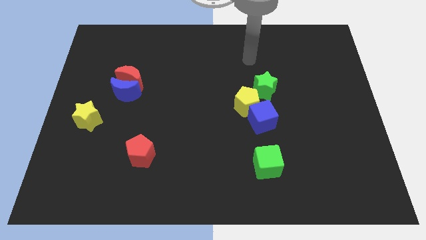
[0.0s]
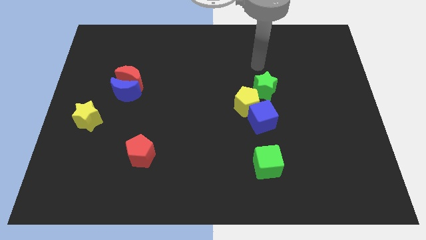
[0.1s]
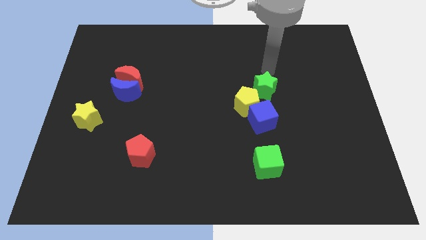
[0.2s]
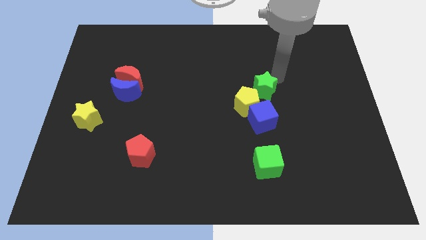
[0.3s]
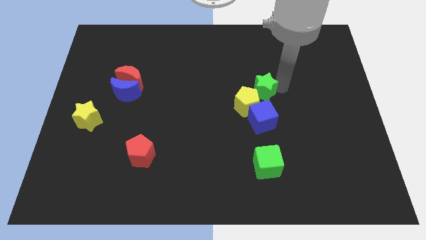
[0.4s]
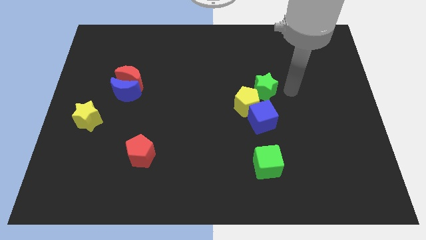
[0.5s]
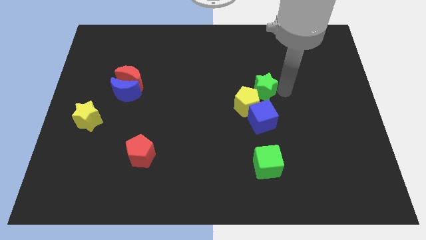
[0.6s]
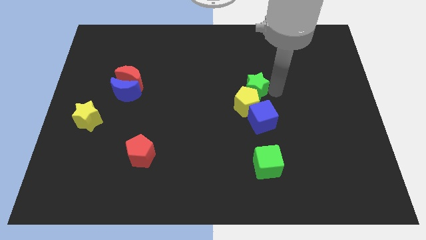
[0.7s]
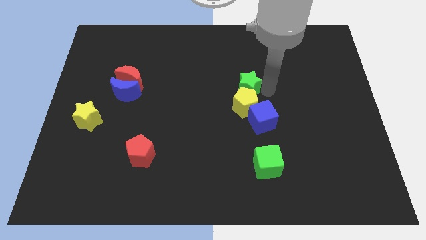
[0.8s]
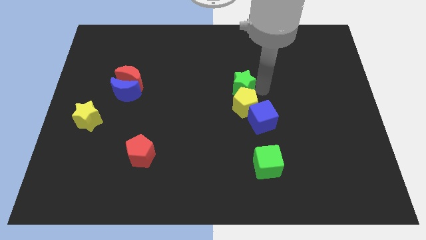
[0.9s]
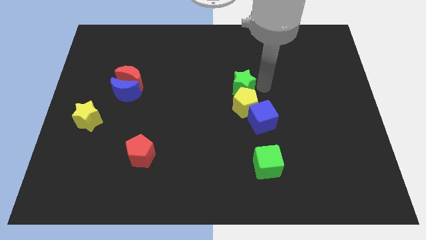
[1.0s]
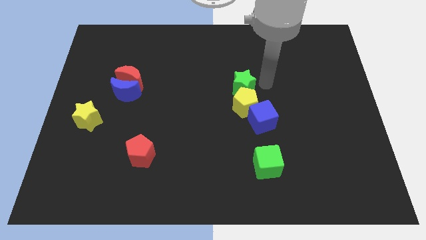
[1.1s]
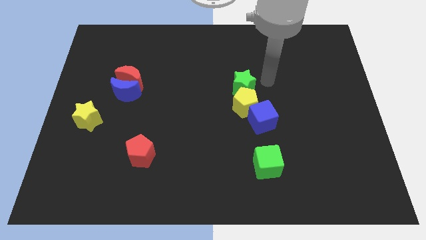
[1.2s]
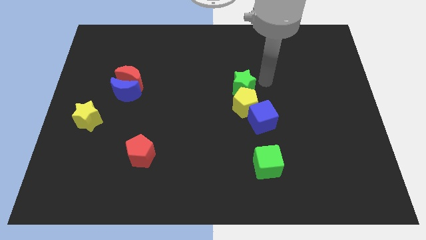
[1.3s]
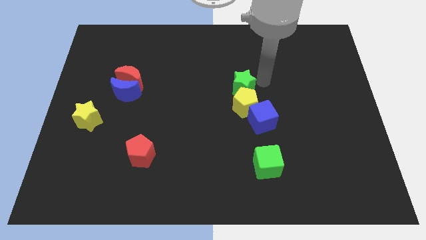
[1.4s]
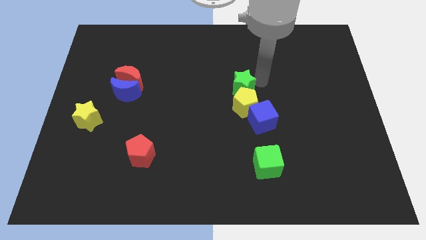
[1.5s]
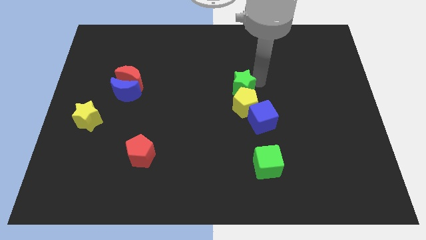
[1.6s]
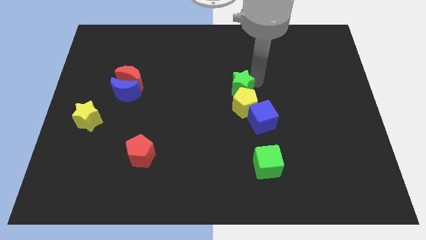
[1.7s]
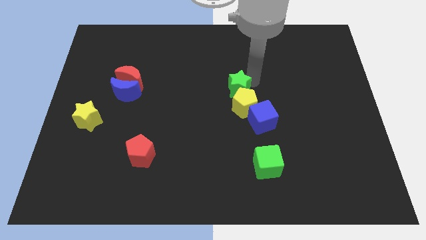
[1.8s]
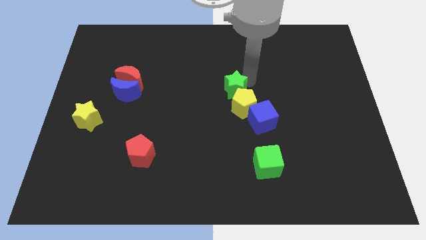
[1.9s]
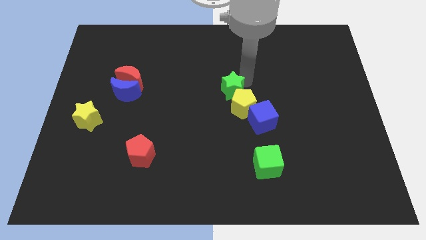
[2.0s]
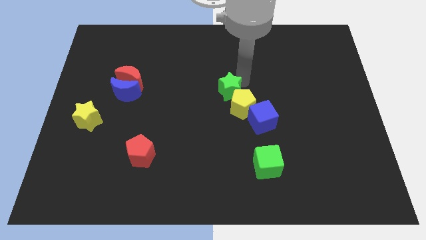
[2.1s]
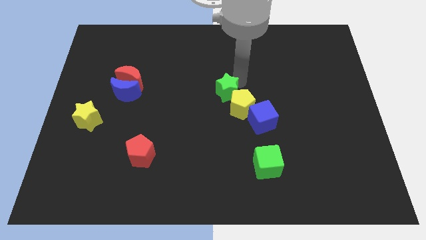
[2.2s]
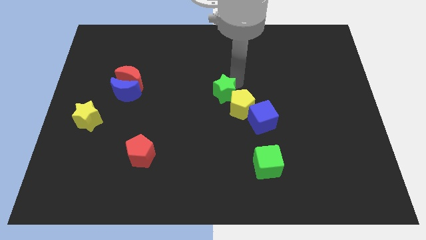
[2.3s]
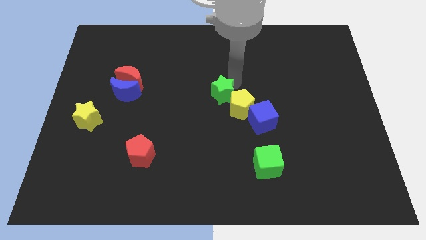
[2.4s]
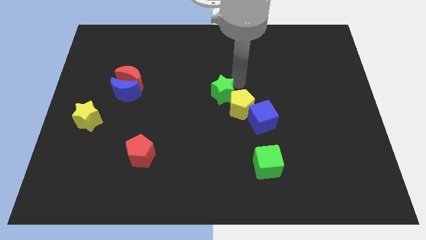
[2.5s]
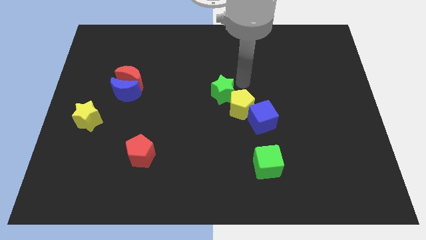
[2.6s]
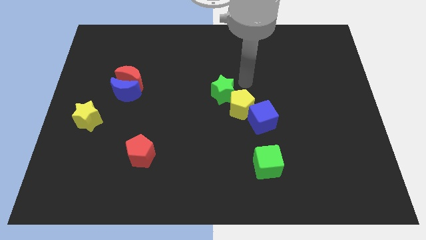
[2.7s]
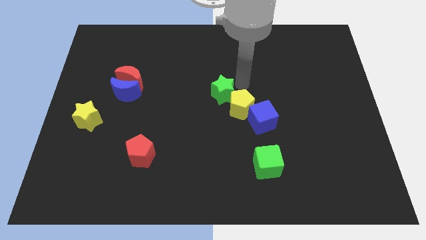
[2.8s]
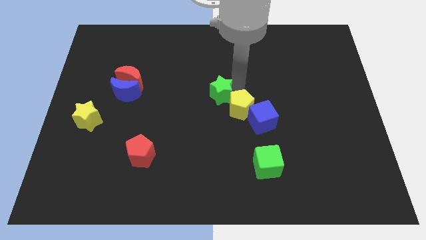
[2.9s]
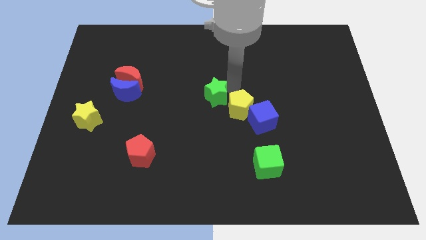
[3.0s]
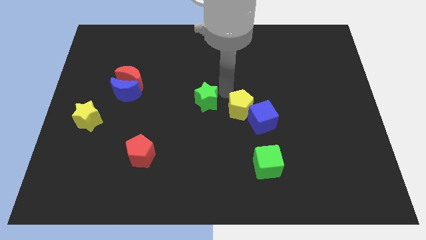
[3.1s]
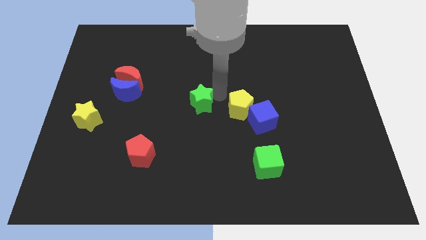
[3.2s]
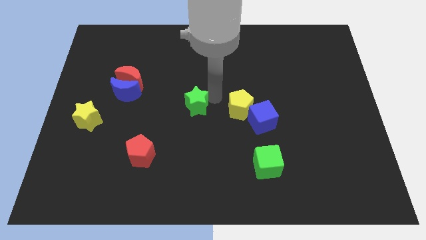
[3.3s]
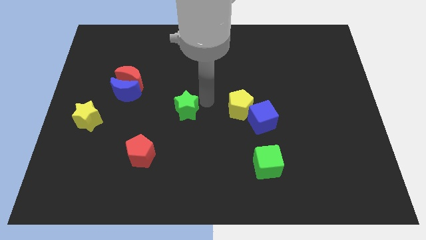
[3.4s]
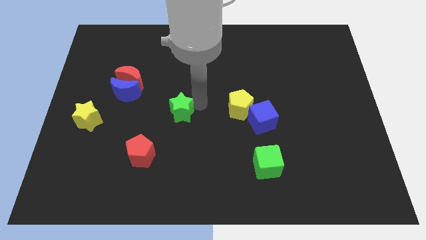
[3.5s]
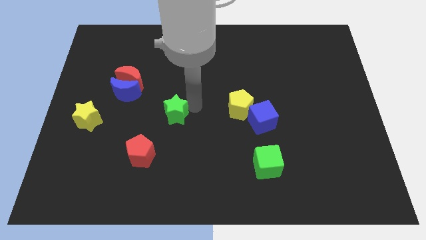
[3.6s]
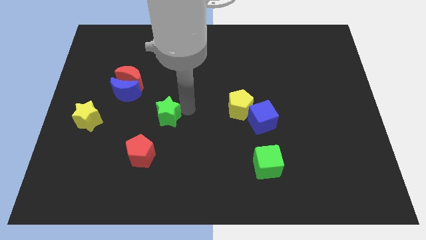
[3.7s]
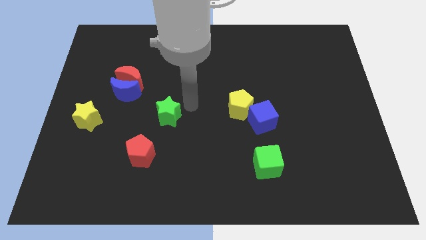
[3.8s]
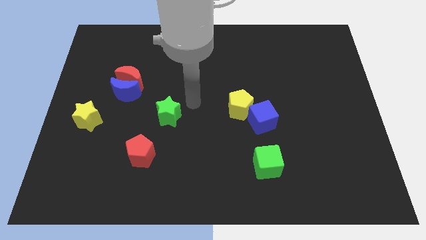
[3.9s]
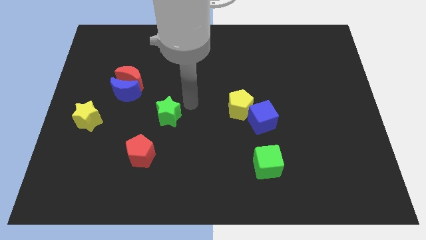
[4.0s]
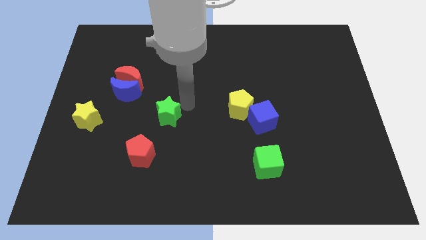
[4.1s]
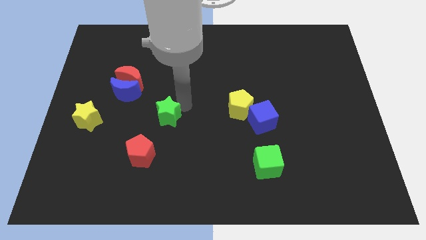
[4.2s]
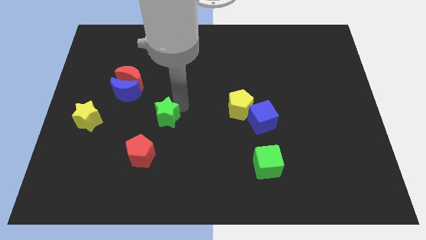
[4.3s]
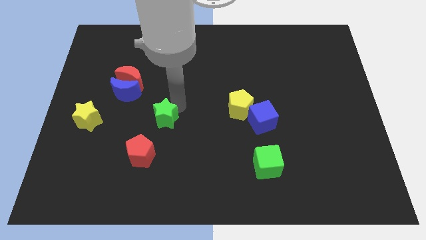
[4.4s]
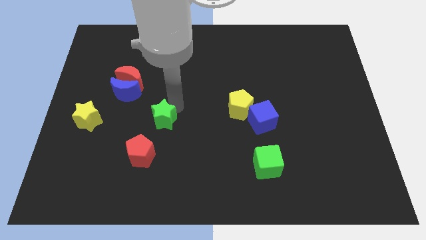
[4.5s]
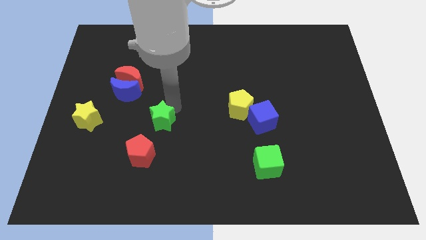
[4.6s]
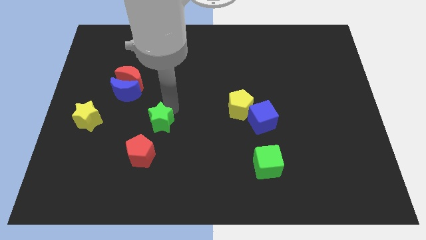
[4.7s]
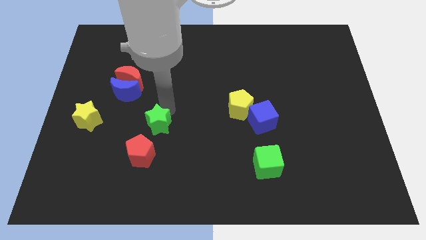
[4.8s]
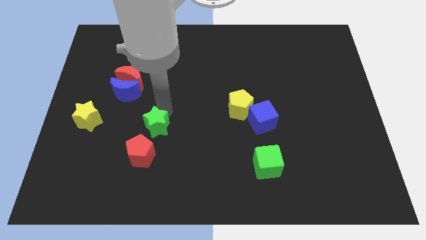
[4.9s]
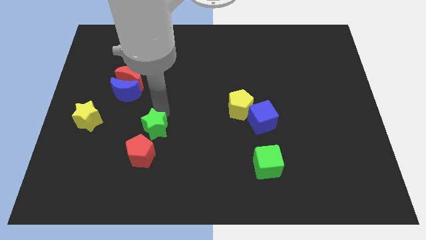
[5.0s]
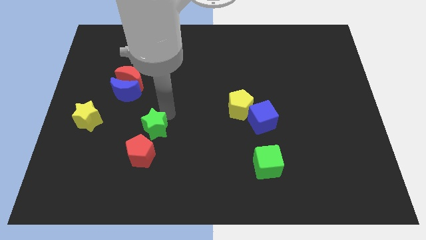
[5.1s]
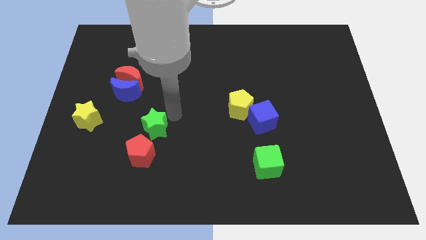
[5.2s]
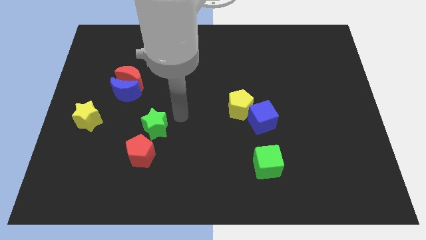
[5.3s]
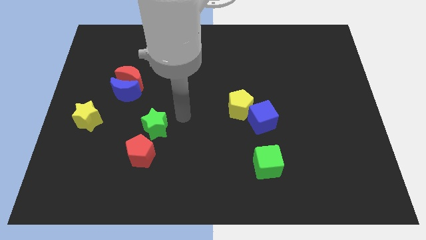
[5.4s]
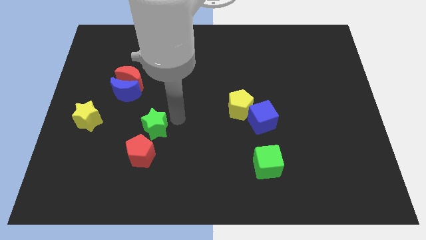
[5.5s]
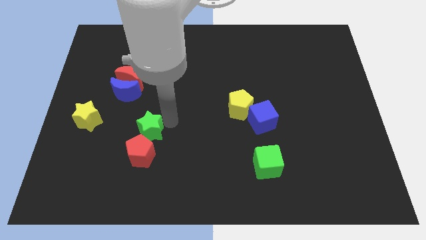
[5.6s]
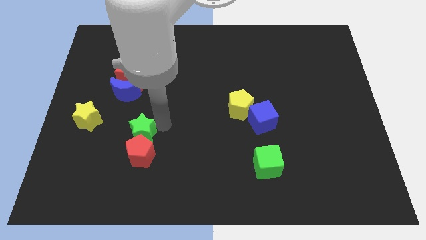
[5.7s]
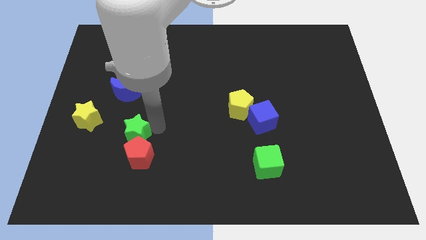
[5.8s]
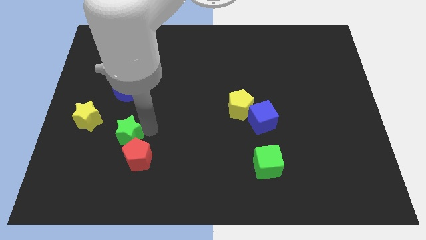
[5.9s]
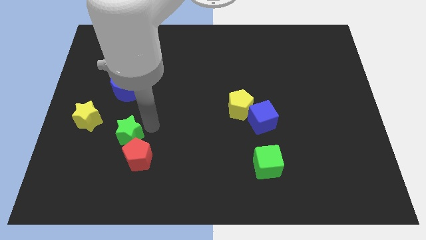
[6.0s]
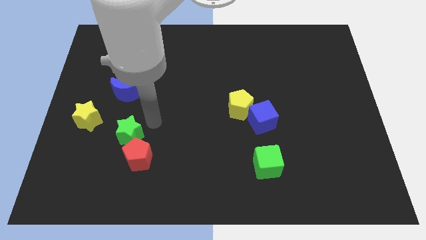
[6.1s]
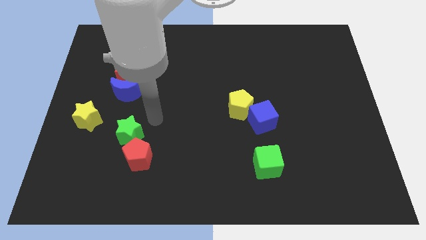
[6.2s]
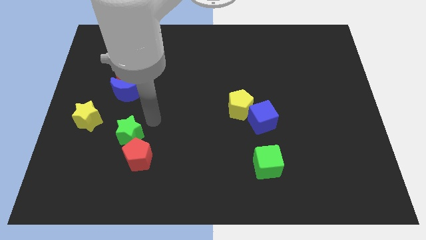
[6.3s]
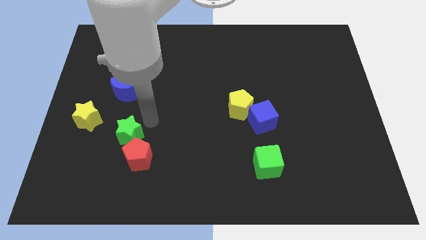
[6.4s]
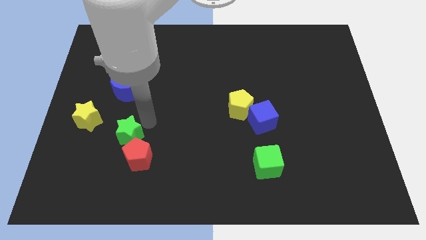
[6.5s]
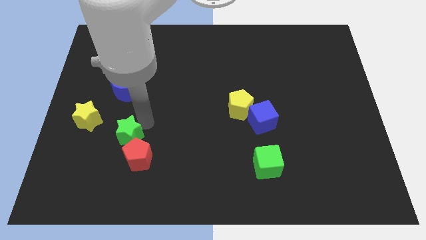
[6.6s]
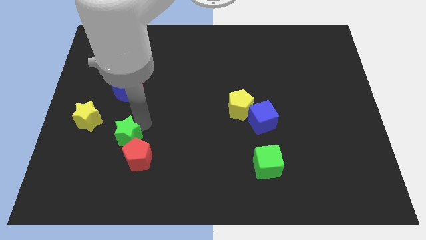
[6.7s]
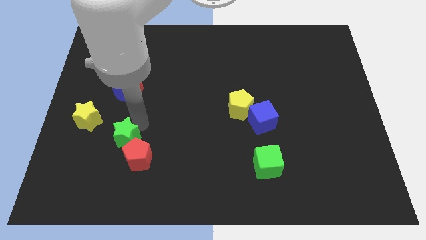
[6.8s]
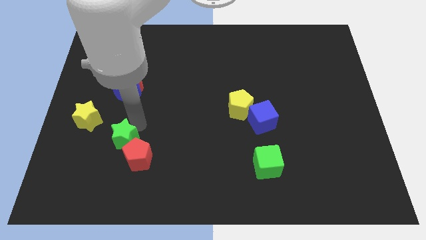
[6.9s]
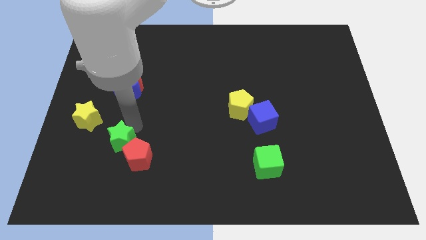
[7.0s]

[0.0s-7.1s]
slide the green star left of the red pentagon
